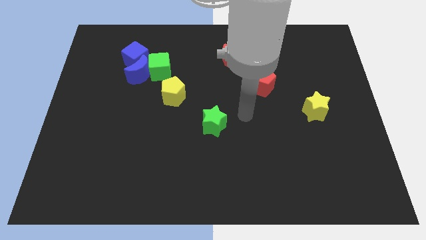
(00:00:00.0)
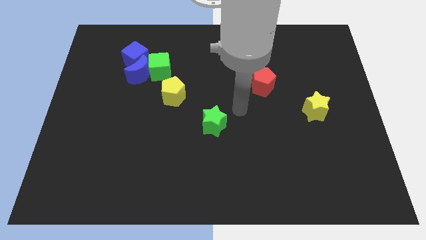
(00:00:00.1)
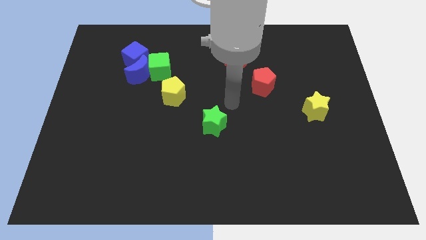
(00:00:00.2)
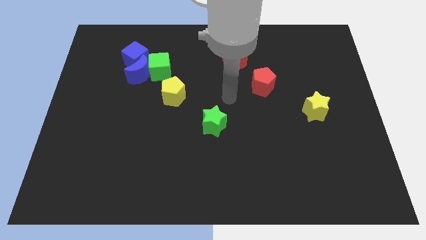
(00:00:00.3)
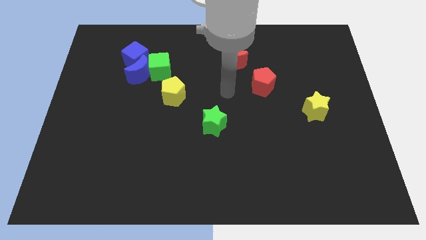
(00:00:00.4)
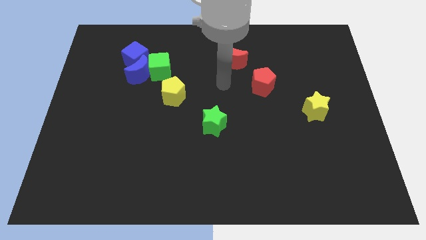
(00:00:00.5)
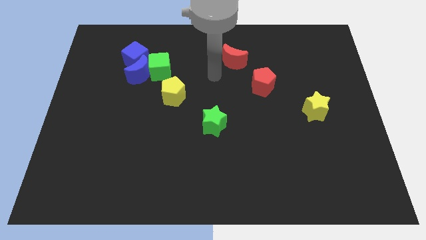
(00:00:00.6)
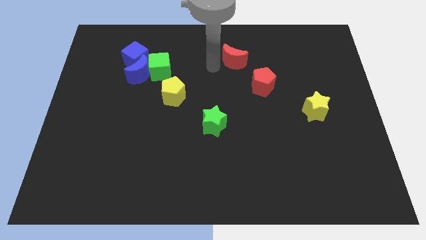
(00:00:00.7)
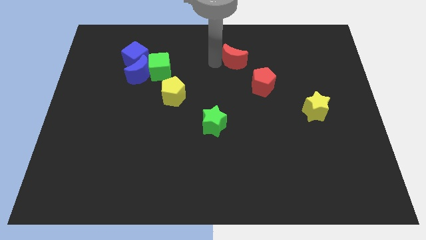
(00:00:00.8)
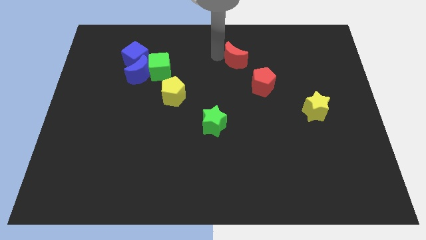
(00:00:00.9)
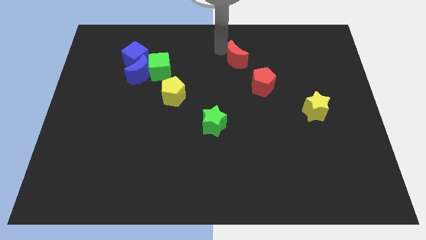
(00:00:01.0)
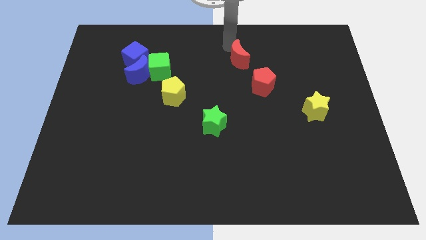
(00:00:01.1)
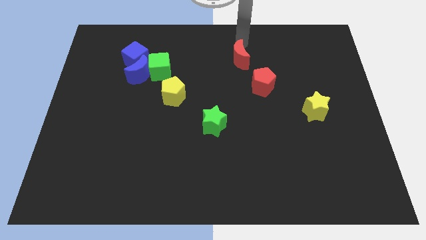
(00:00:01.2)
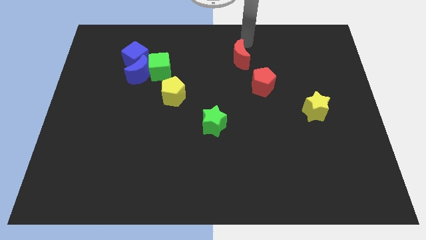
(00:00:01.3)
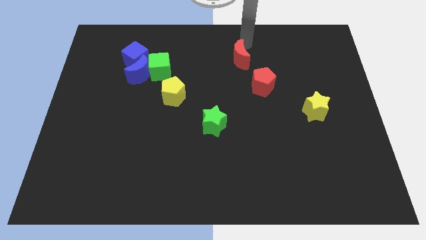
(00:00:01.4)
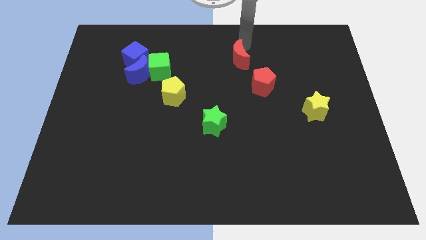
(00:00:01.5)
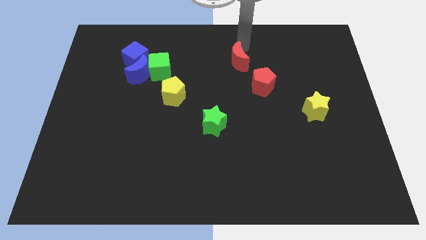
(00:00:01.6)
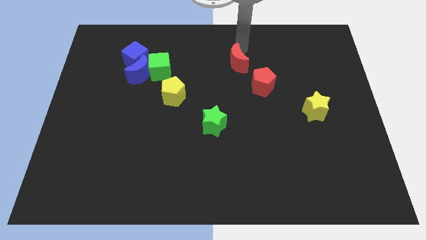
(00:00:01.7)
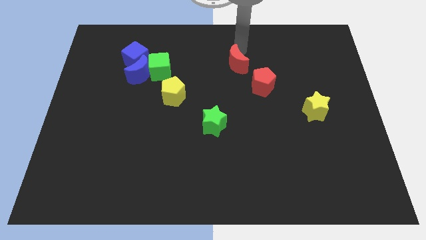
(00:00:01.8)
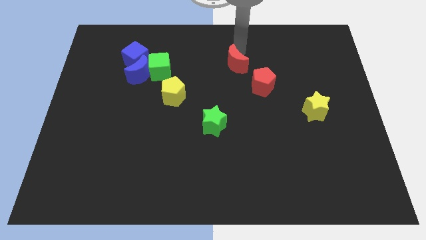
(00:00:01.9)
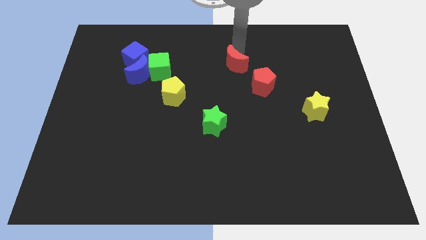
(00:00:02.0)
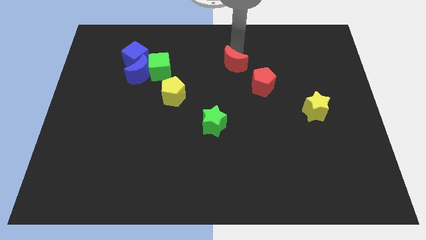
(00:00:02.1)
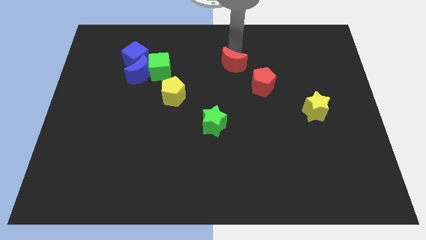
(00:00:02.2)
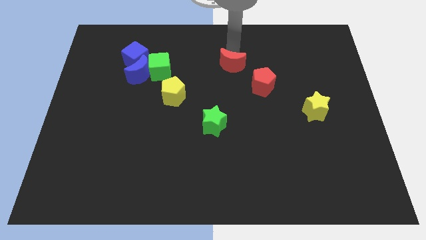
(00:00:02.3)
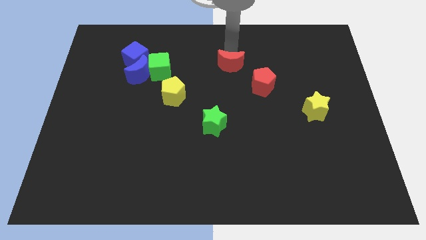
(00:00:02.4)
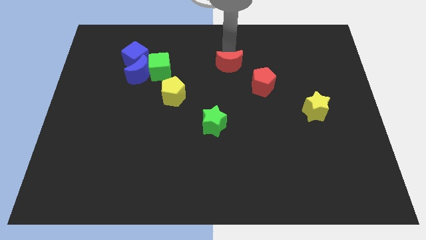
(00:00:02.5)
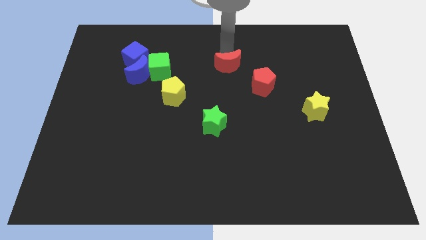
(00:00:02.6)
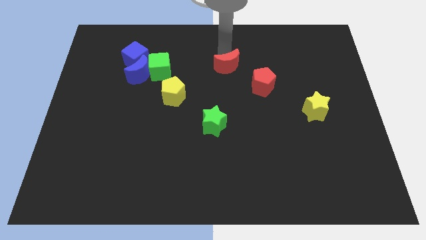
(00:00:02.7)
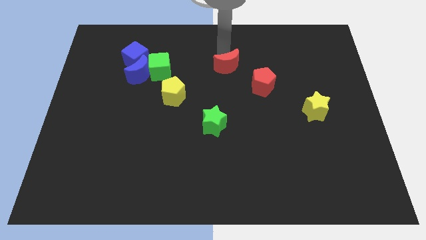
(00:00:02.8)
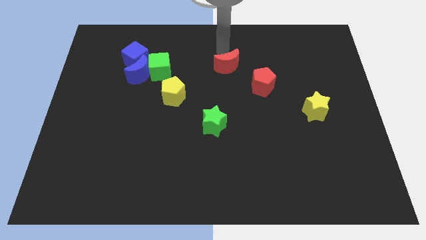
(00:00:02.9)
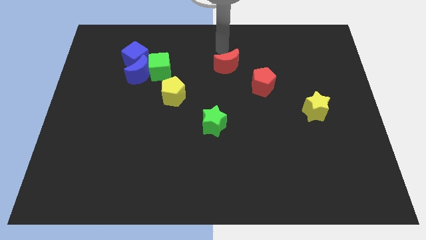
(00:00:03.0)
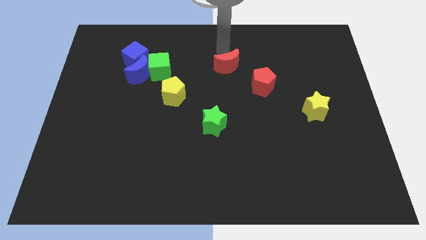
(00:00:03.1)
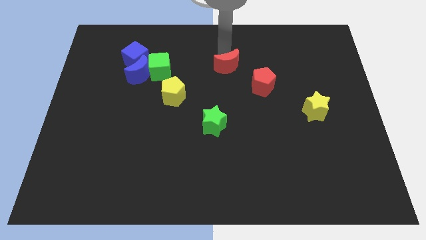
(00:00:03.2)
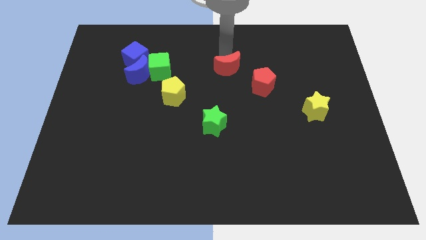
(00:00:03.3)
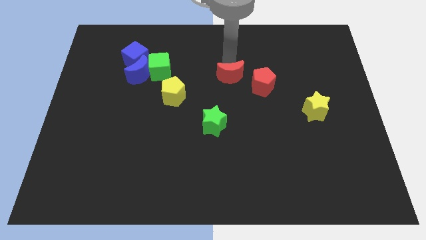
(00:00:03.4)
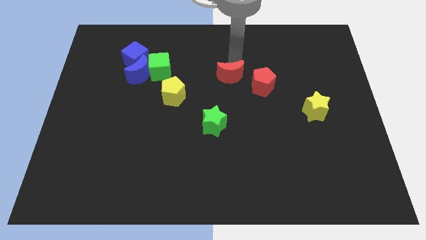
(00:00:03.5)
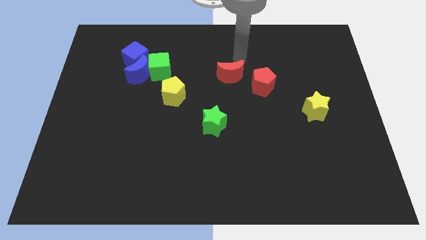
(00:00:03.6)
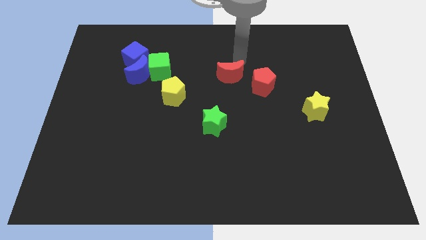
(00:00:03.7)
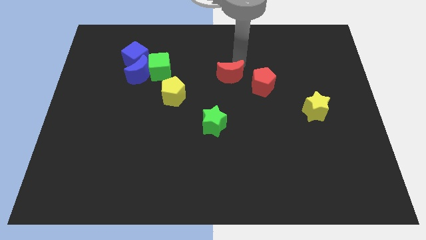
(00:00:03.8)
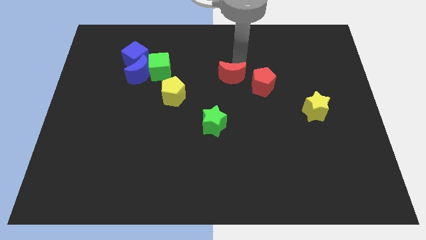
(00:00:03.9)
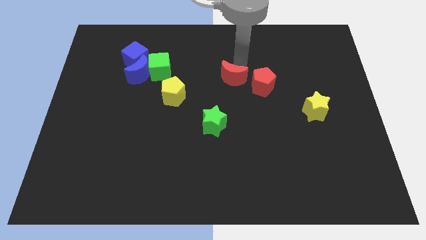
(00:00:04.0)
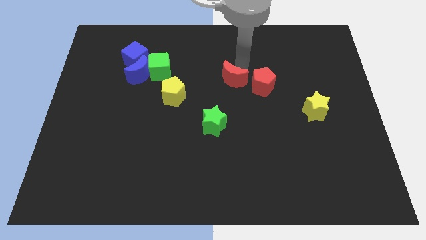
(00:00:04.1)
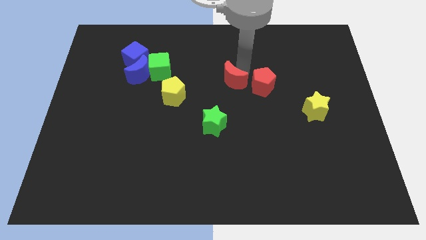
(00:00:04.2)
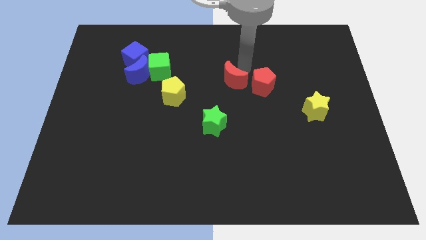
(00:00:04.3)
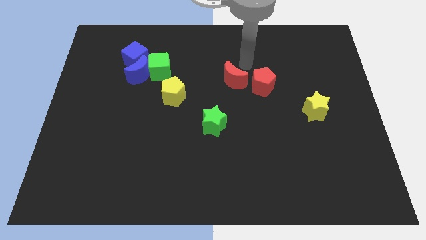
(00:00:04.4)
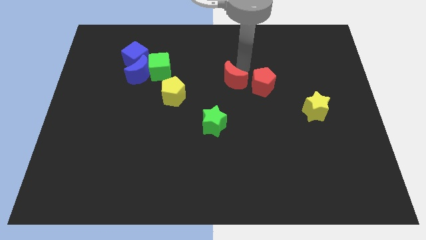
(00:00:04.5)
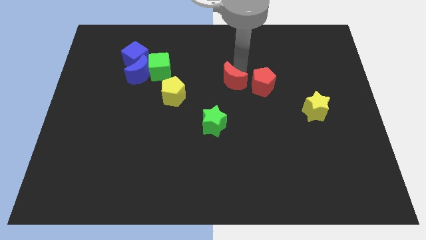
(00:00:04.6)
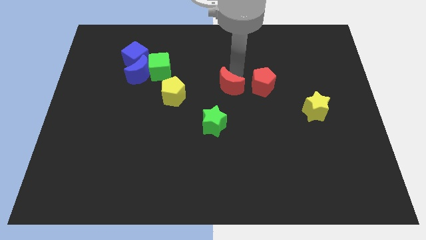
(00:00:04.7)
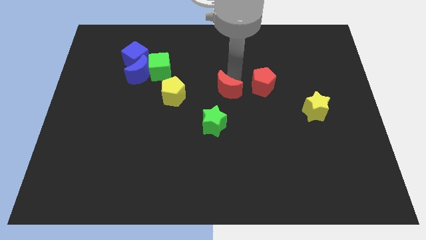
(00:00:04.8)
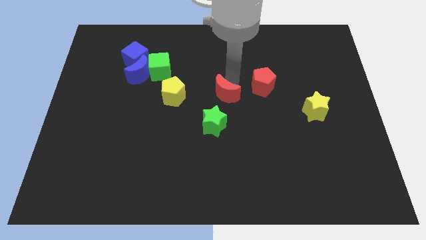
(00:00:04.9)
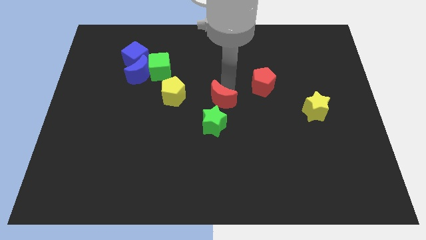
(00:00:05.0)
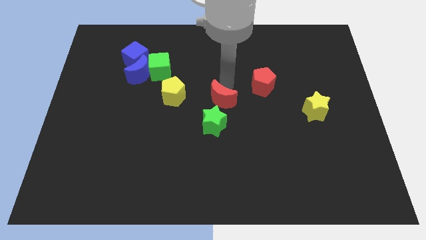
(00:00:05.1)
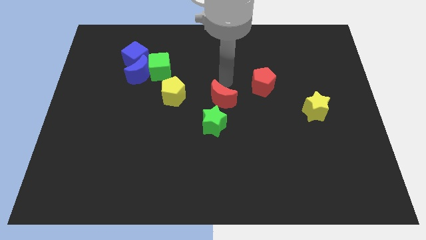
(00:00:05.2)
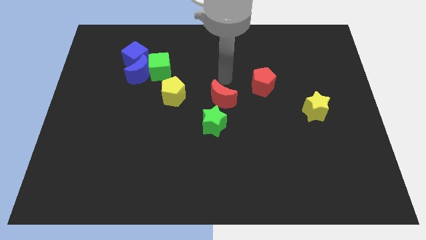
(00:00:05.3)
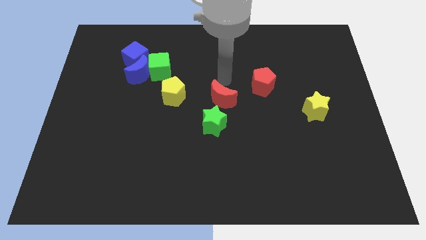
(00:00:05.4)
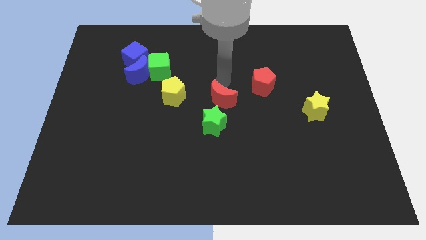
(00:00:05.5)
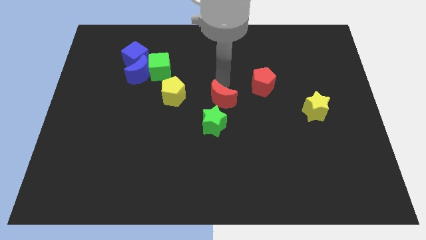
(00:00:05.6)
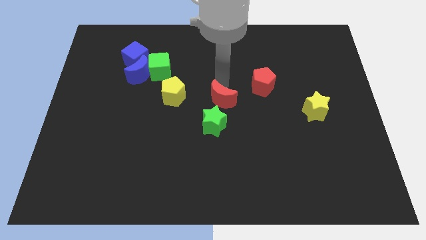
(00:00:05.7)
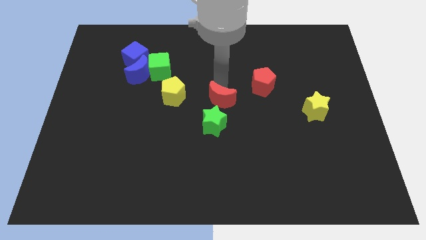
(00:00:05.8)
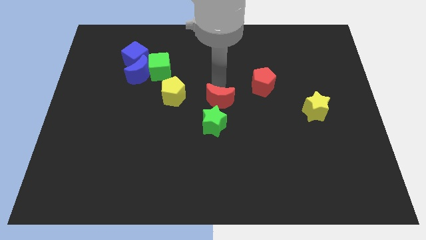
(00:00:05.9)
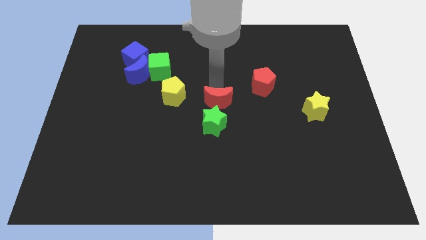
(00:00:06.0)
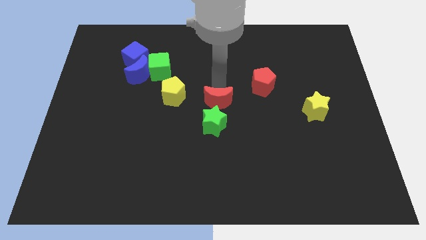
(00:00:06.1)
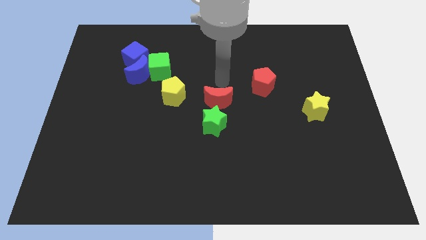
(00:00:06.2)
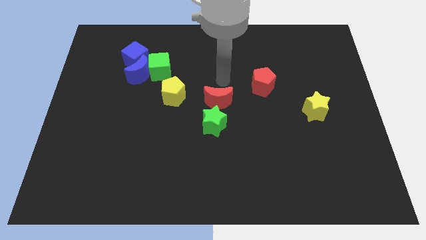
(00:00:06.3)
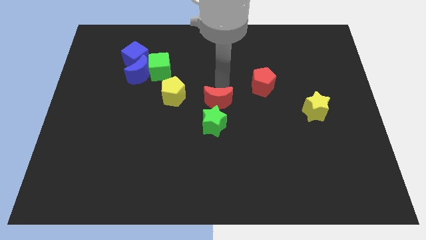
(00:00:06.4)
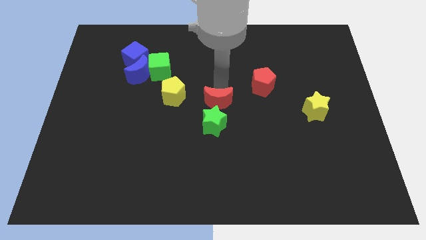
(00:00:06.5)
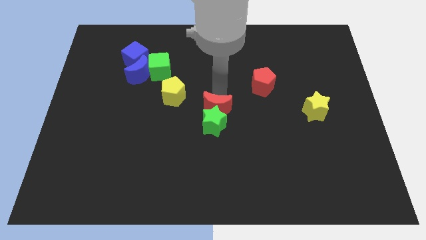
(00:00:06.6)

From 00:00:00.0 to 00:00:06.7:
slide the red moon to the green star

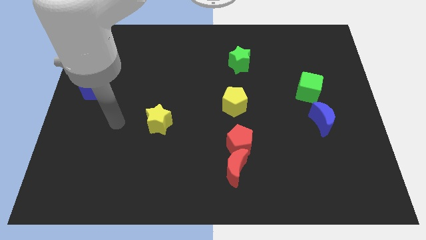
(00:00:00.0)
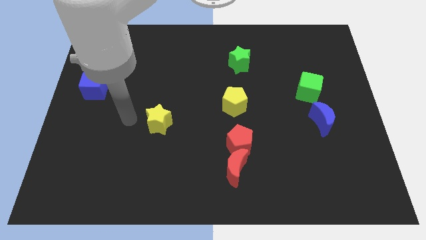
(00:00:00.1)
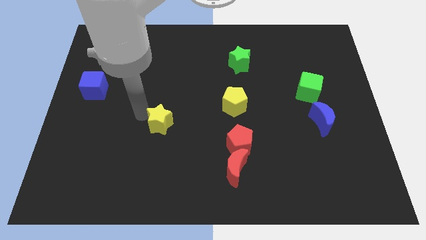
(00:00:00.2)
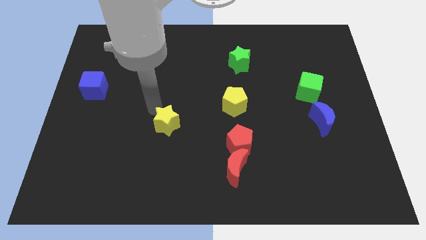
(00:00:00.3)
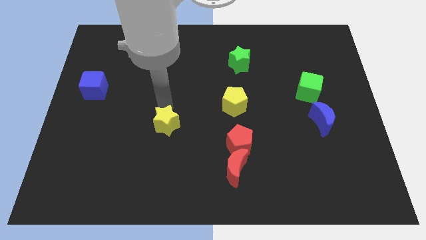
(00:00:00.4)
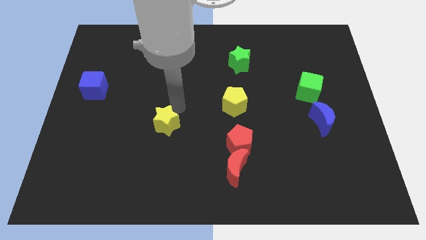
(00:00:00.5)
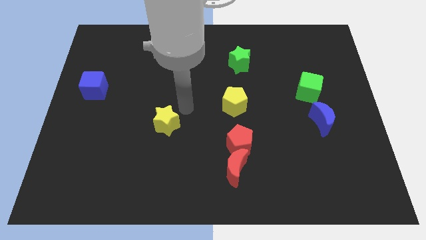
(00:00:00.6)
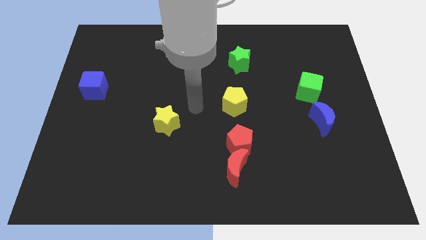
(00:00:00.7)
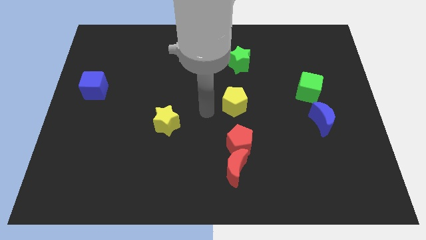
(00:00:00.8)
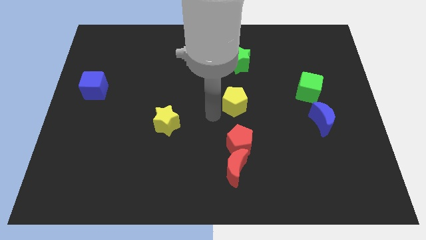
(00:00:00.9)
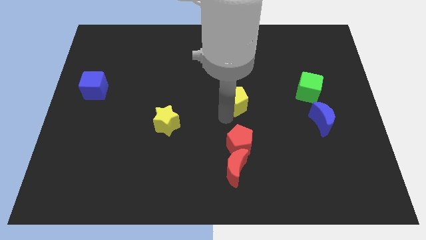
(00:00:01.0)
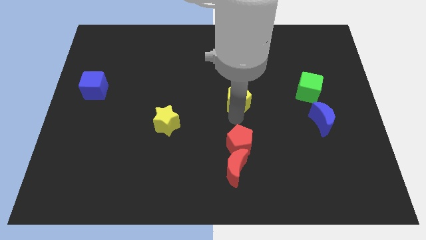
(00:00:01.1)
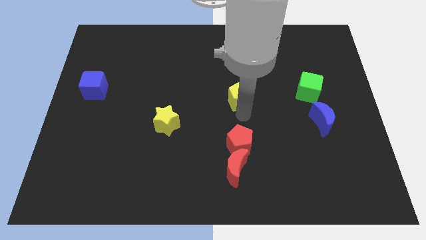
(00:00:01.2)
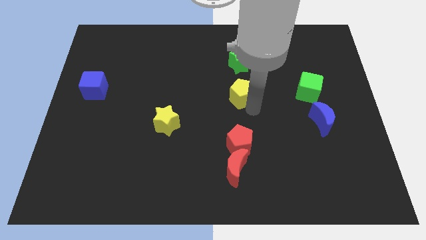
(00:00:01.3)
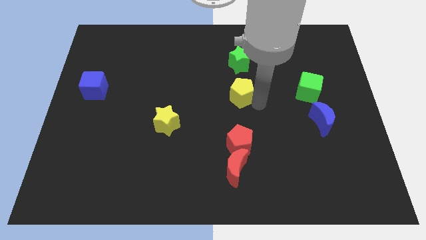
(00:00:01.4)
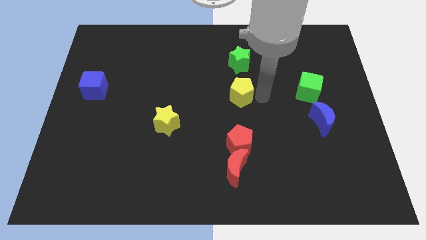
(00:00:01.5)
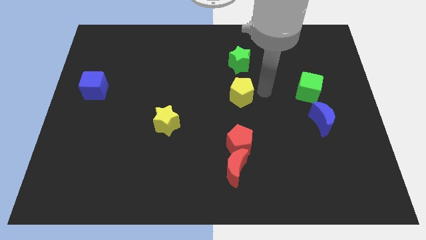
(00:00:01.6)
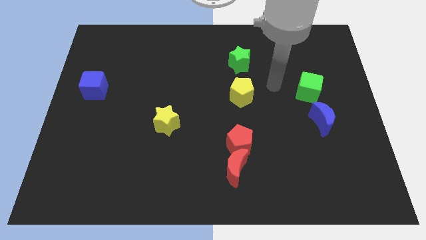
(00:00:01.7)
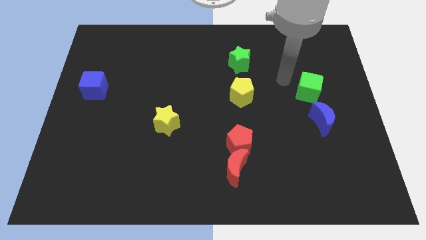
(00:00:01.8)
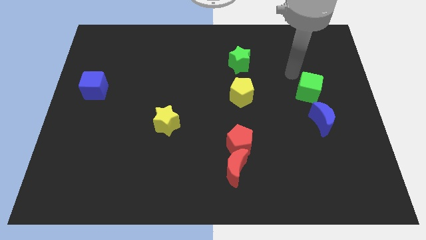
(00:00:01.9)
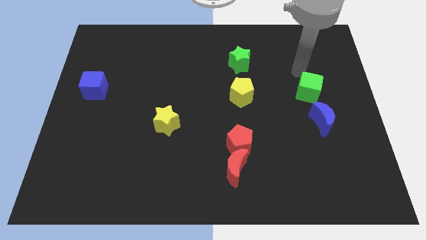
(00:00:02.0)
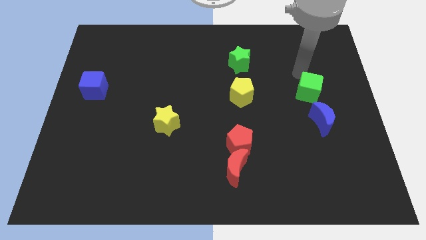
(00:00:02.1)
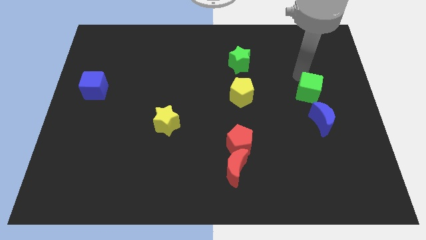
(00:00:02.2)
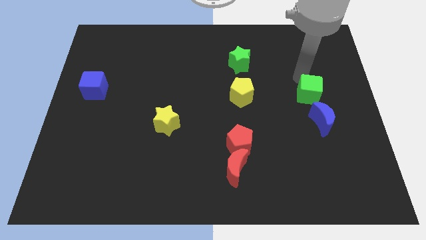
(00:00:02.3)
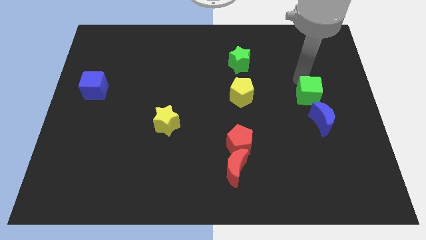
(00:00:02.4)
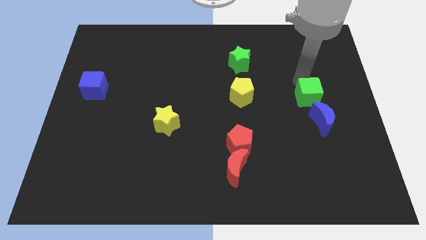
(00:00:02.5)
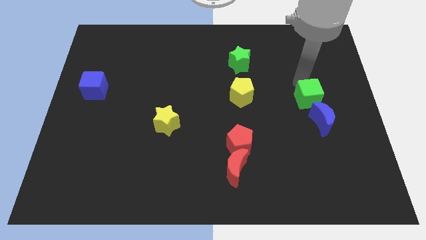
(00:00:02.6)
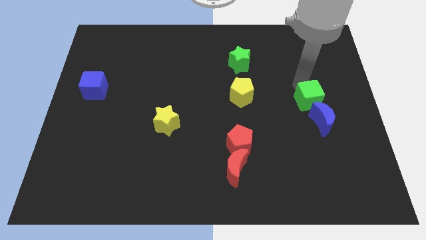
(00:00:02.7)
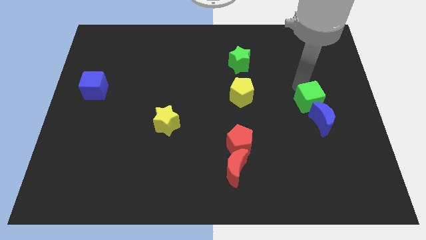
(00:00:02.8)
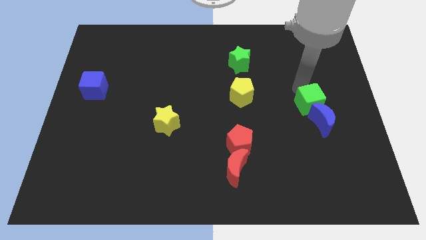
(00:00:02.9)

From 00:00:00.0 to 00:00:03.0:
push the green cube next to the blue moon
